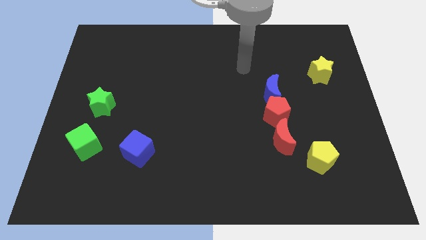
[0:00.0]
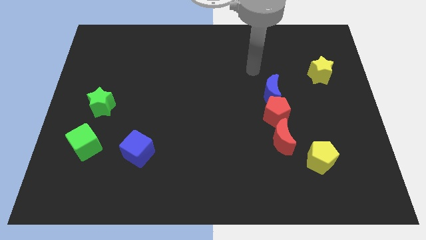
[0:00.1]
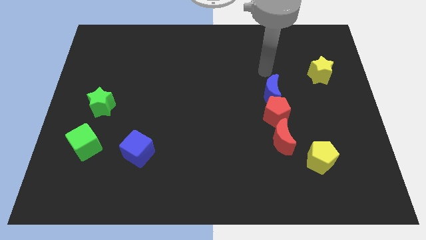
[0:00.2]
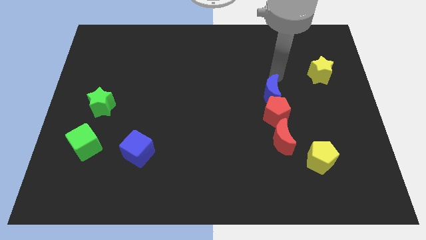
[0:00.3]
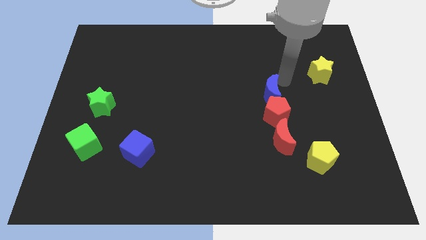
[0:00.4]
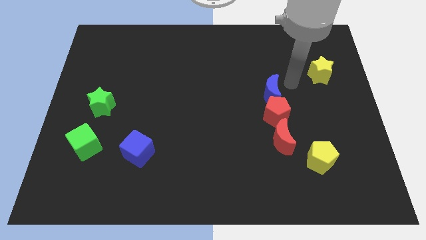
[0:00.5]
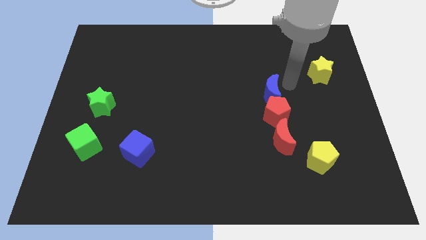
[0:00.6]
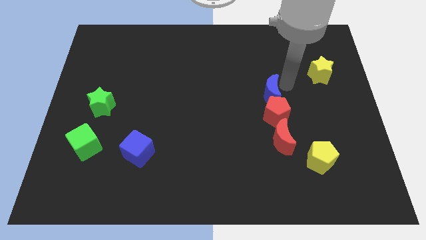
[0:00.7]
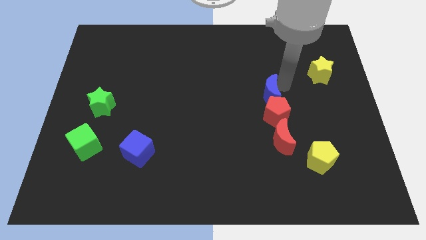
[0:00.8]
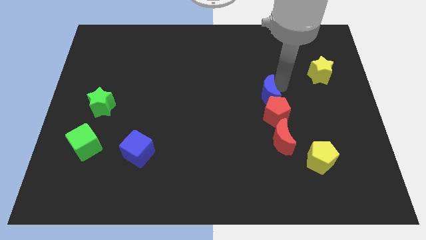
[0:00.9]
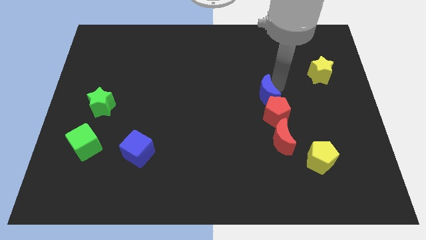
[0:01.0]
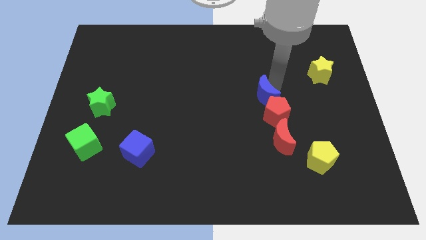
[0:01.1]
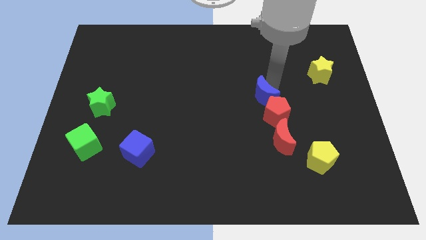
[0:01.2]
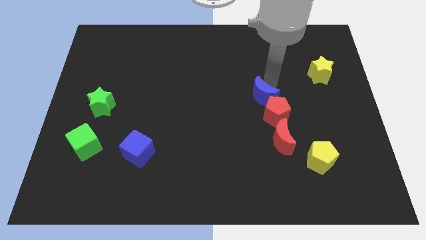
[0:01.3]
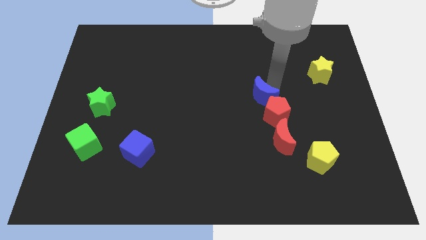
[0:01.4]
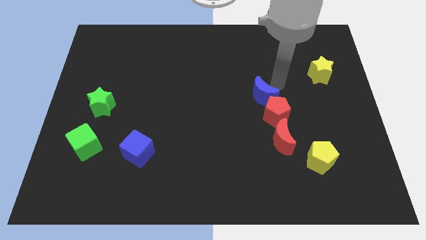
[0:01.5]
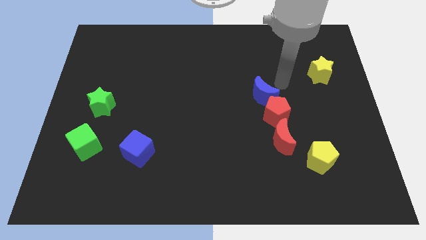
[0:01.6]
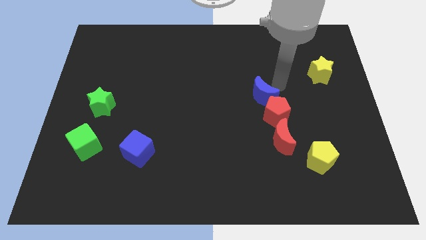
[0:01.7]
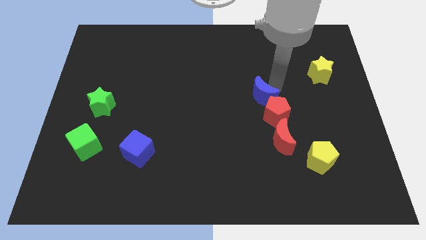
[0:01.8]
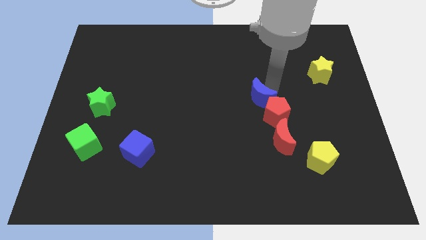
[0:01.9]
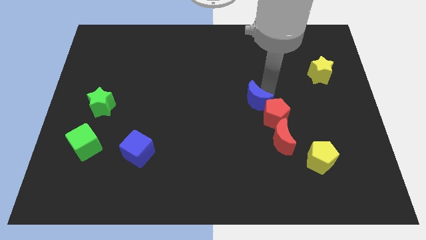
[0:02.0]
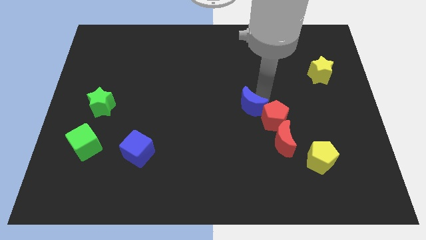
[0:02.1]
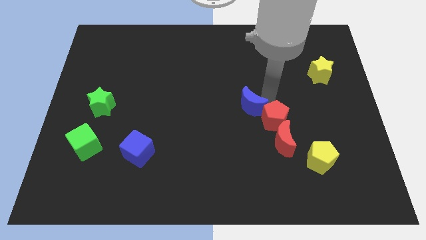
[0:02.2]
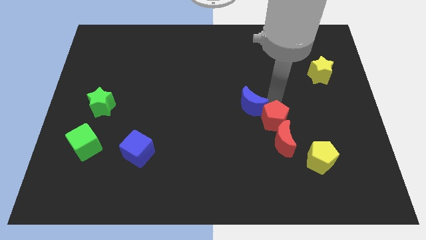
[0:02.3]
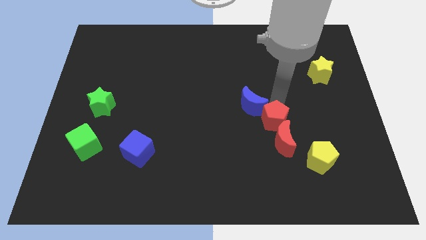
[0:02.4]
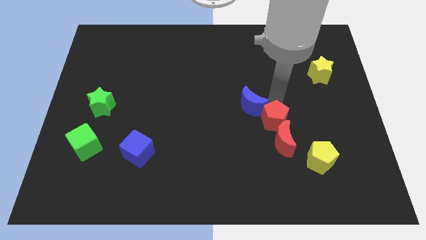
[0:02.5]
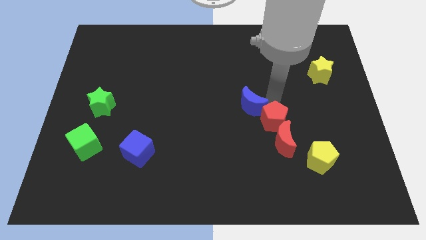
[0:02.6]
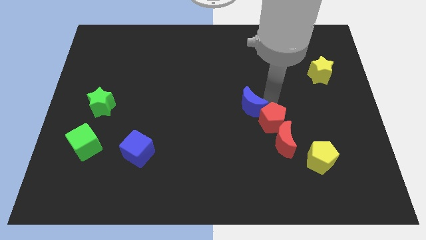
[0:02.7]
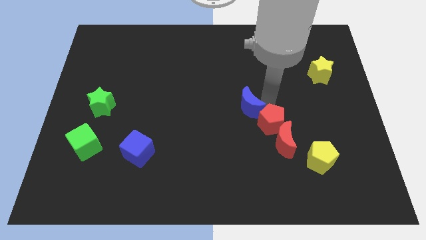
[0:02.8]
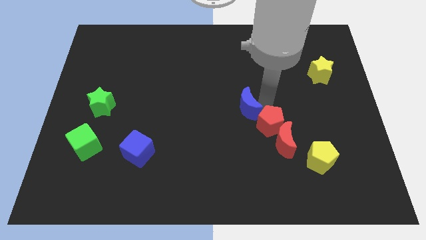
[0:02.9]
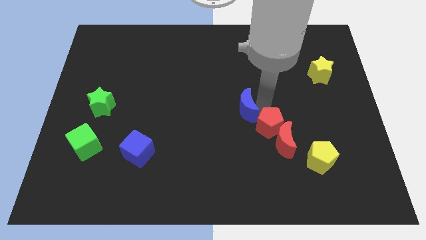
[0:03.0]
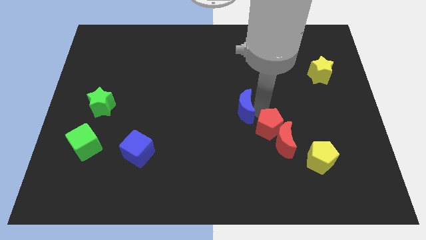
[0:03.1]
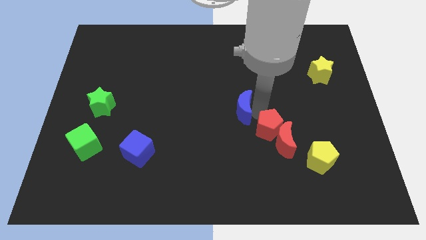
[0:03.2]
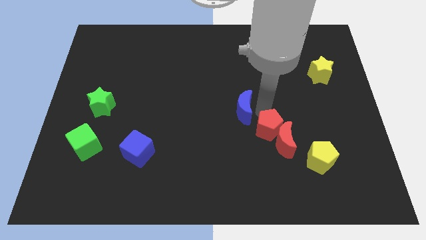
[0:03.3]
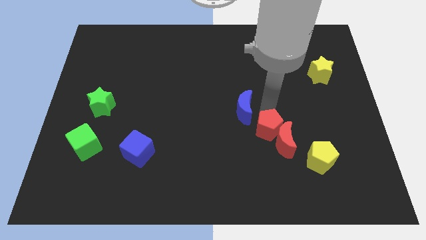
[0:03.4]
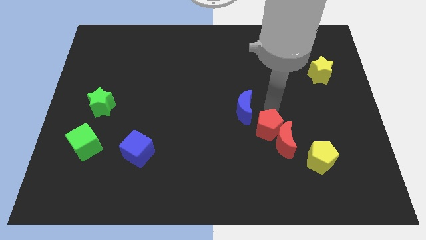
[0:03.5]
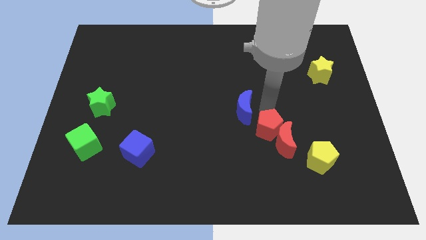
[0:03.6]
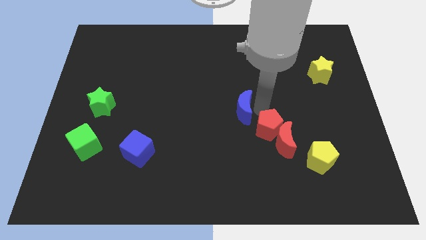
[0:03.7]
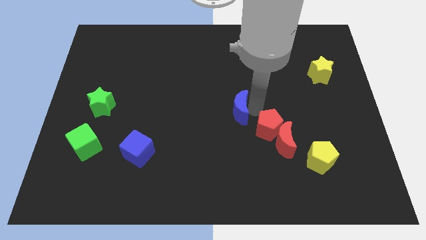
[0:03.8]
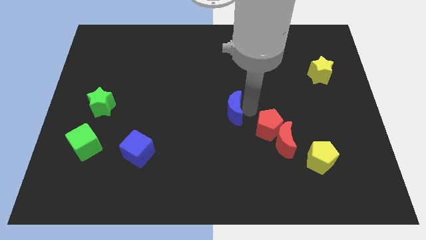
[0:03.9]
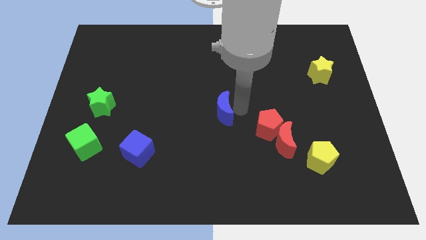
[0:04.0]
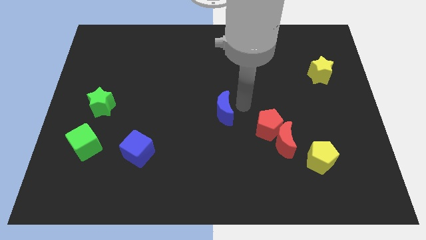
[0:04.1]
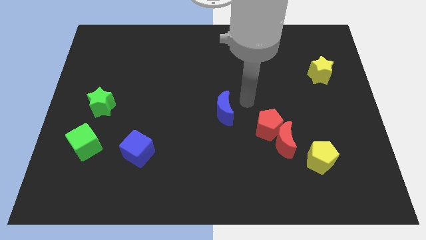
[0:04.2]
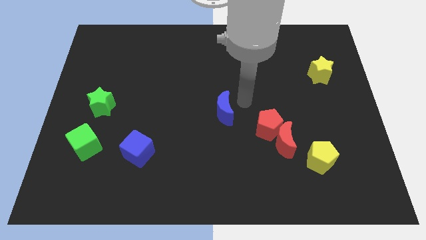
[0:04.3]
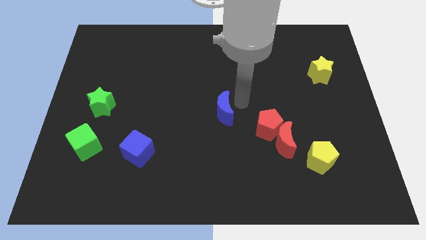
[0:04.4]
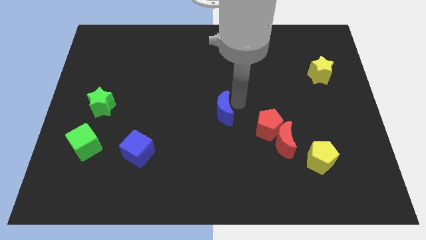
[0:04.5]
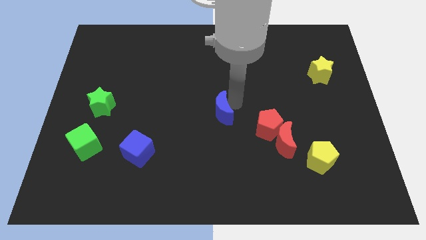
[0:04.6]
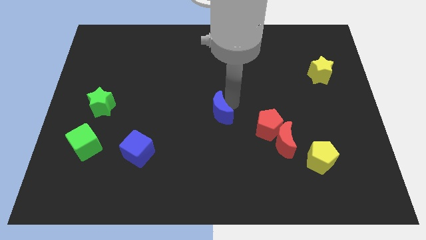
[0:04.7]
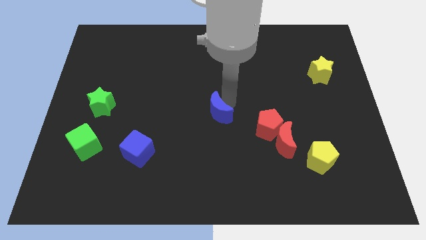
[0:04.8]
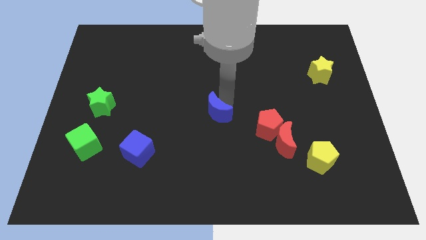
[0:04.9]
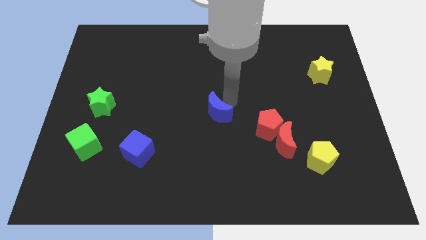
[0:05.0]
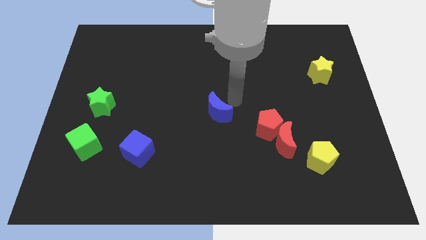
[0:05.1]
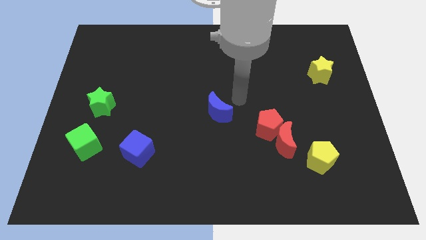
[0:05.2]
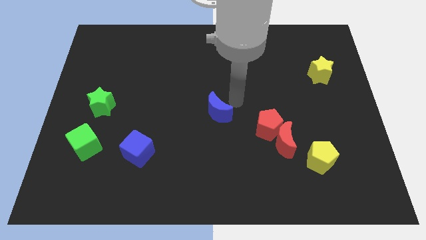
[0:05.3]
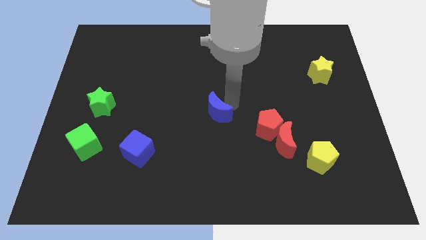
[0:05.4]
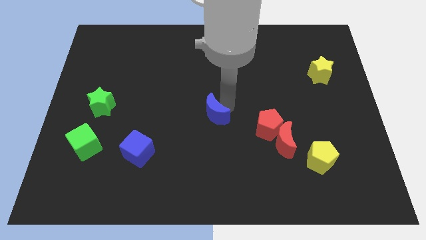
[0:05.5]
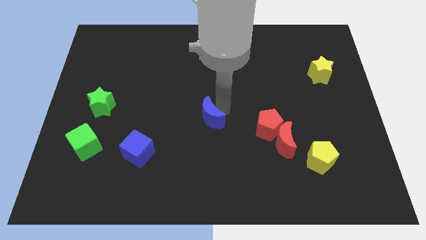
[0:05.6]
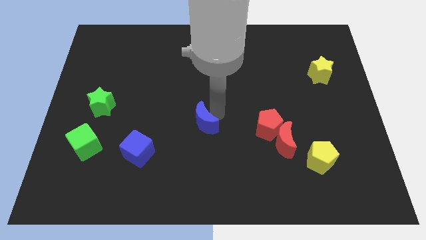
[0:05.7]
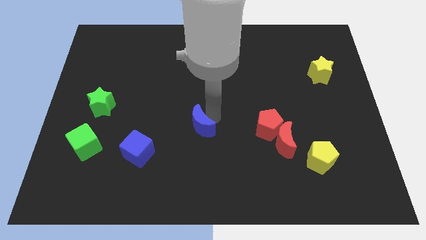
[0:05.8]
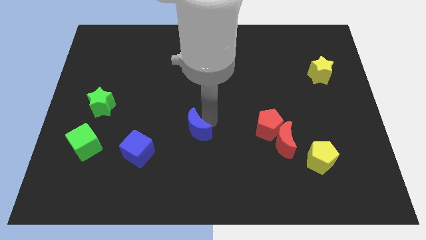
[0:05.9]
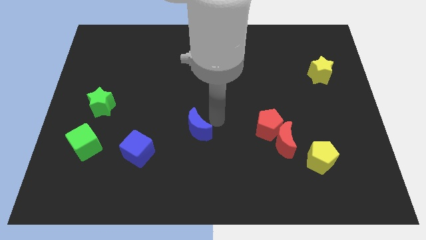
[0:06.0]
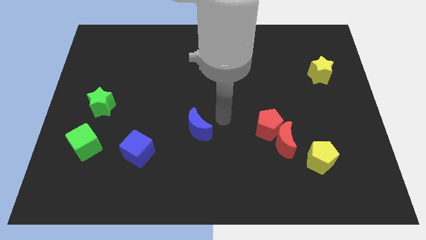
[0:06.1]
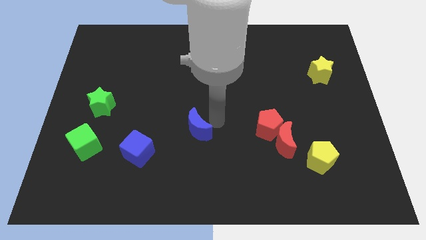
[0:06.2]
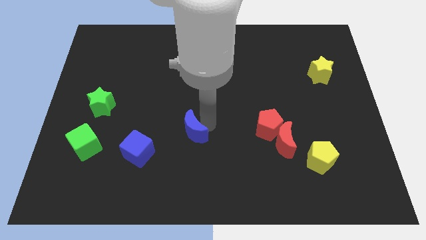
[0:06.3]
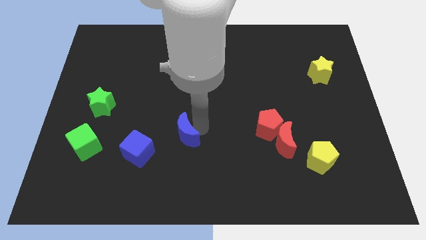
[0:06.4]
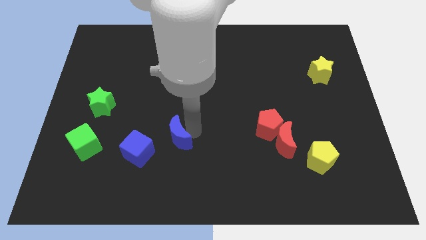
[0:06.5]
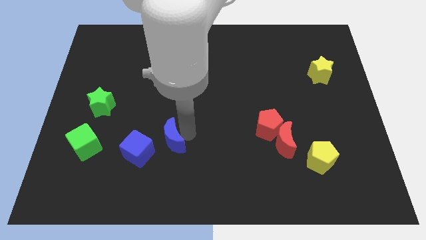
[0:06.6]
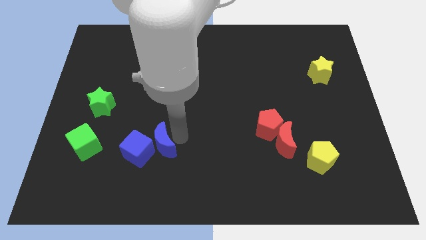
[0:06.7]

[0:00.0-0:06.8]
put the blue moon next to the blue cube

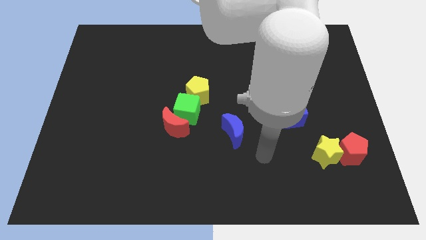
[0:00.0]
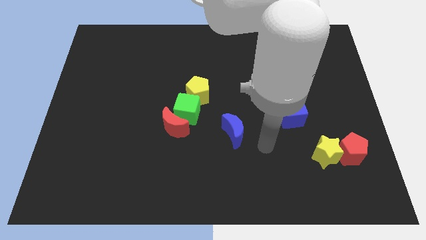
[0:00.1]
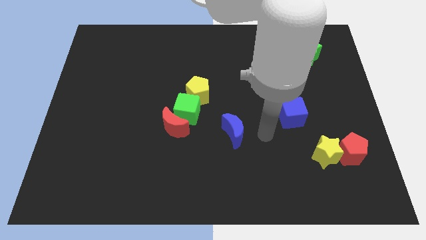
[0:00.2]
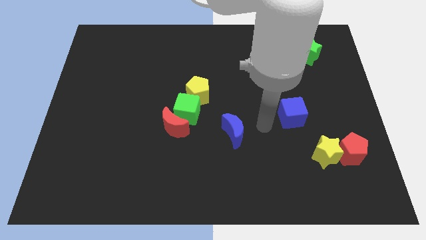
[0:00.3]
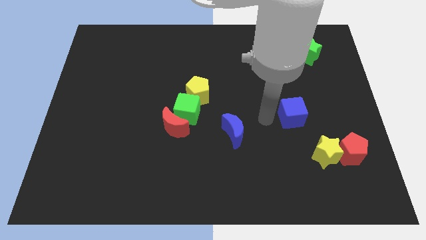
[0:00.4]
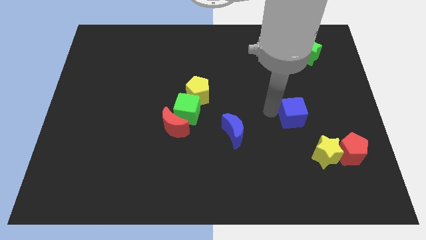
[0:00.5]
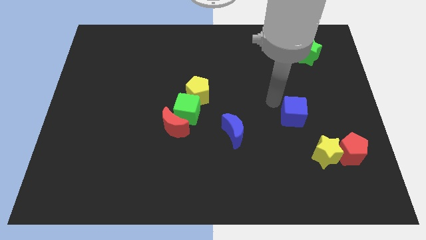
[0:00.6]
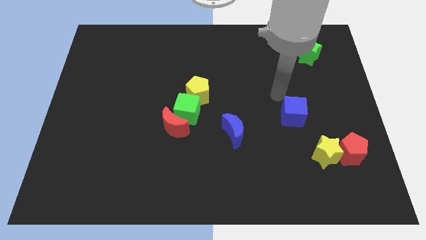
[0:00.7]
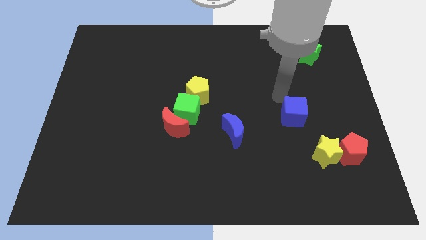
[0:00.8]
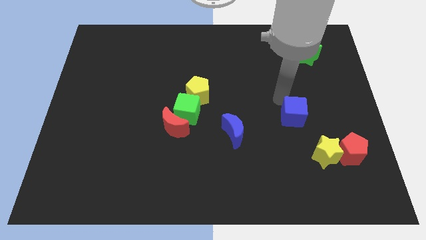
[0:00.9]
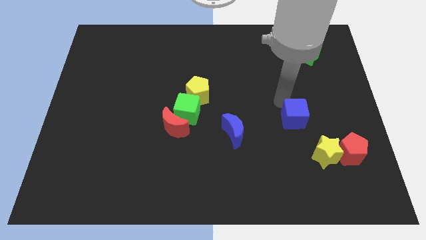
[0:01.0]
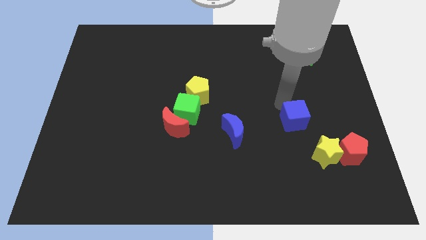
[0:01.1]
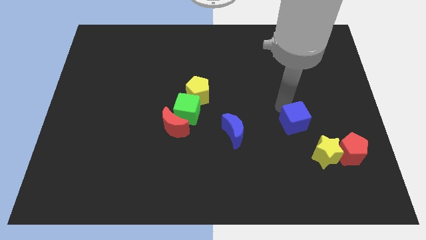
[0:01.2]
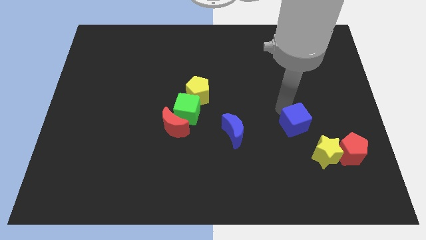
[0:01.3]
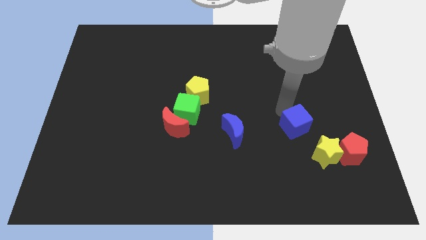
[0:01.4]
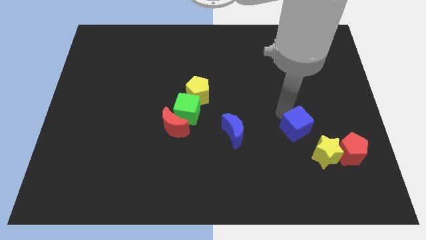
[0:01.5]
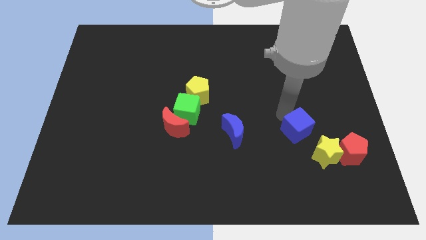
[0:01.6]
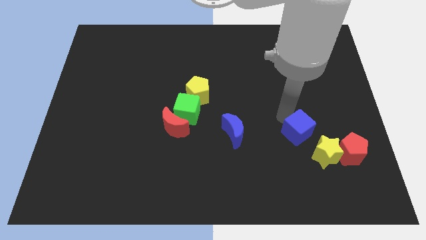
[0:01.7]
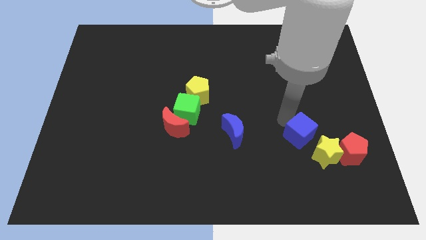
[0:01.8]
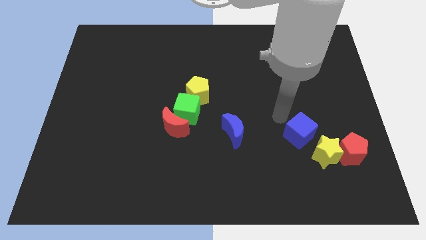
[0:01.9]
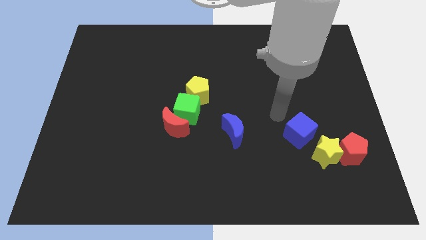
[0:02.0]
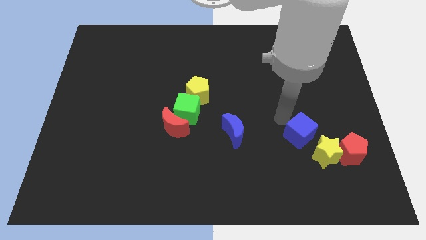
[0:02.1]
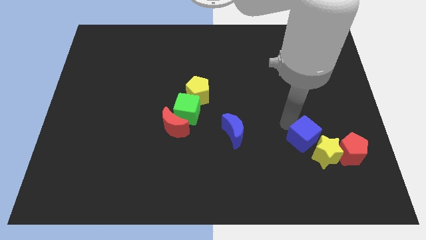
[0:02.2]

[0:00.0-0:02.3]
move the blue cube next to the yellow star
